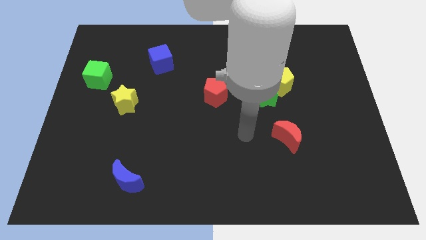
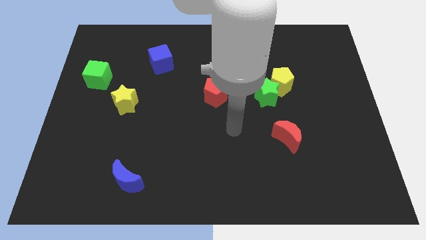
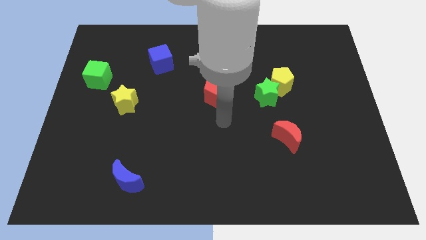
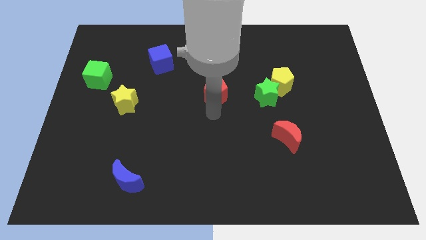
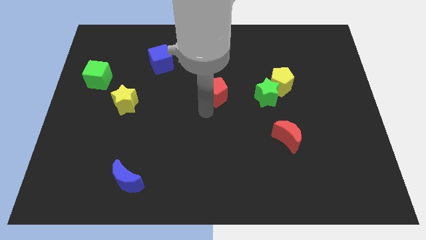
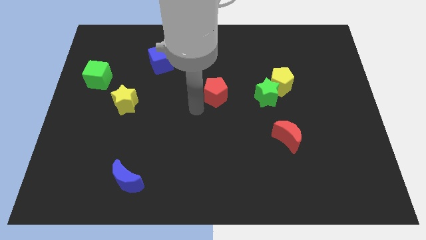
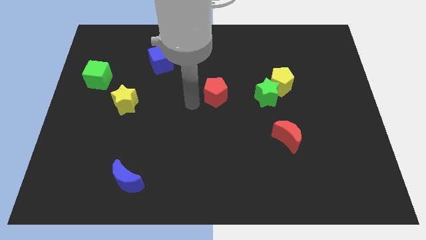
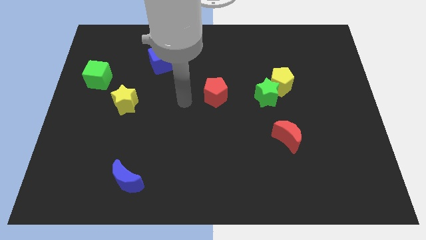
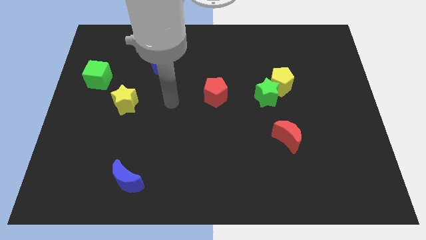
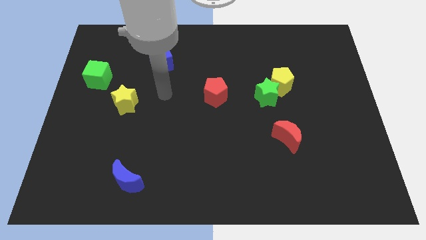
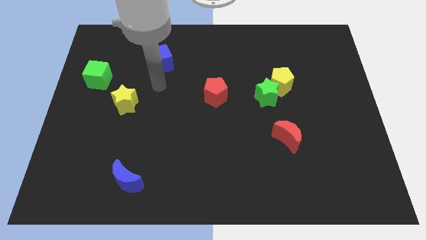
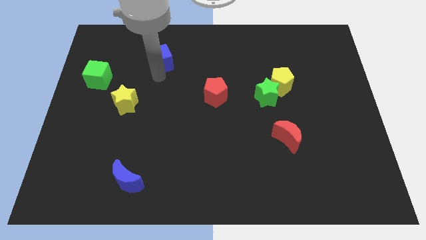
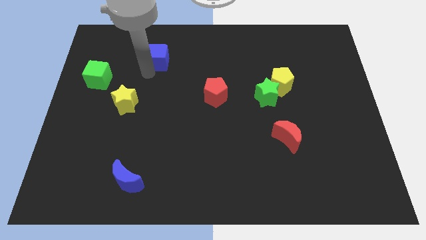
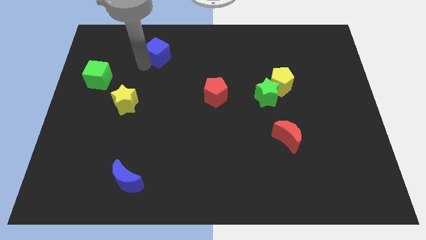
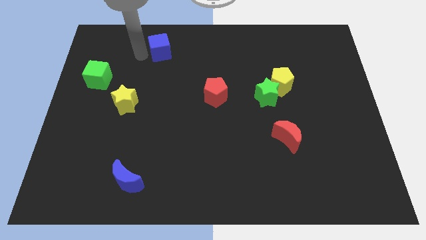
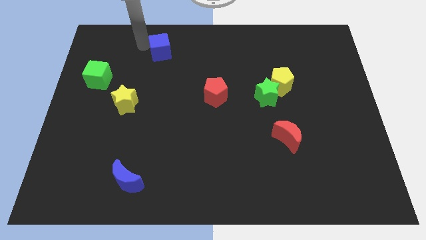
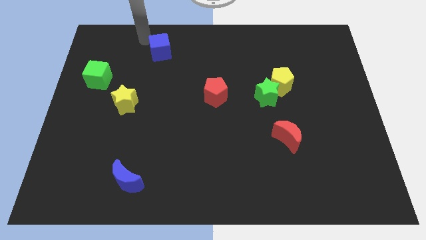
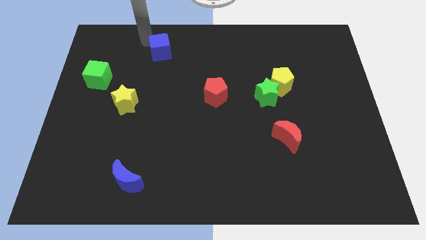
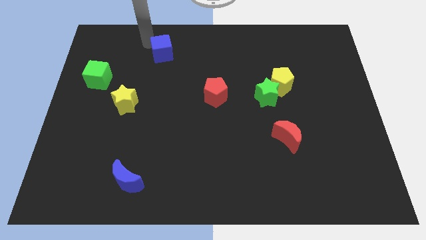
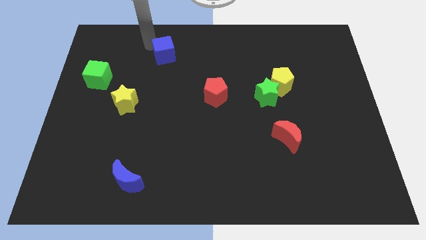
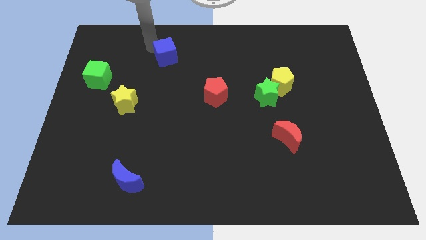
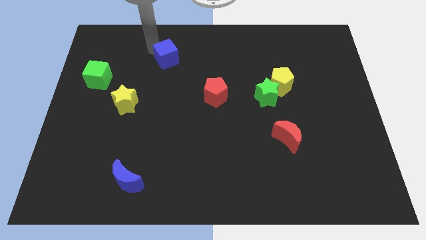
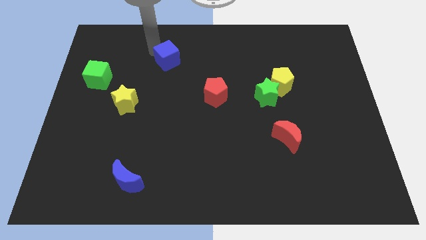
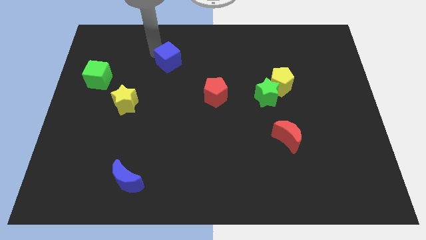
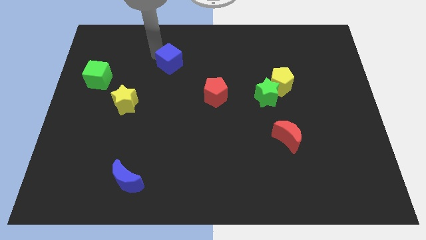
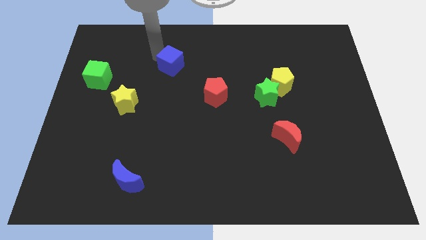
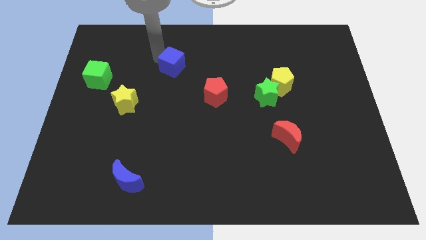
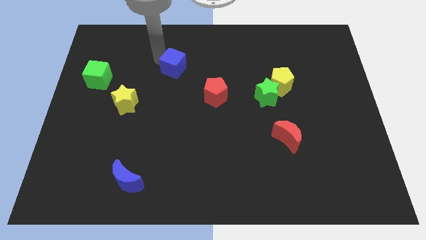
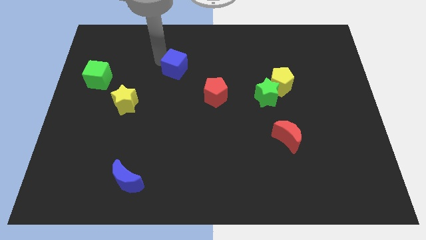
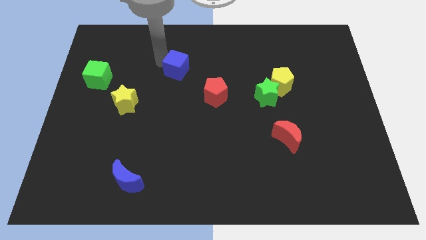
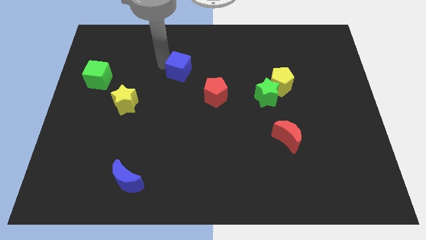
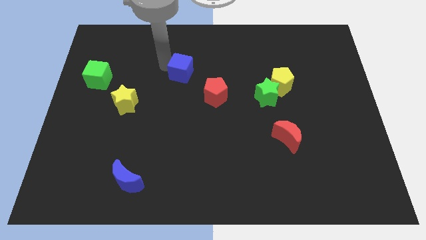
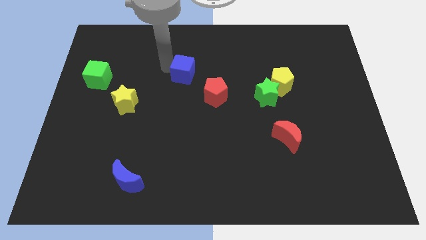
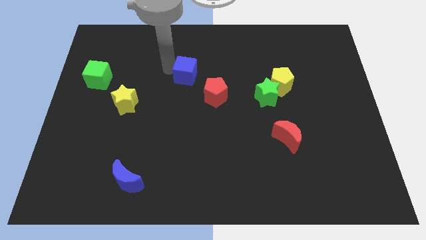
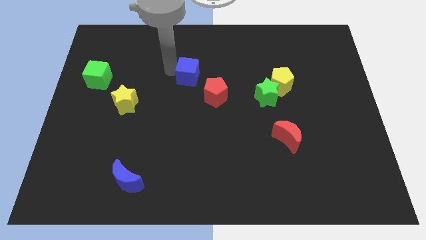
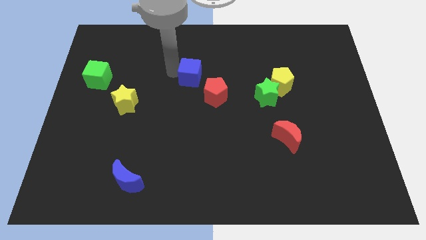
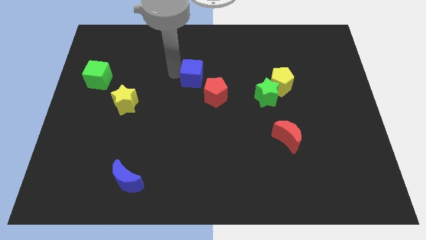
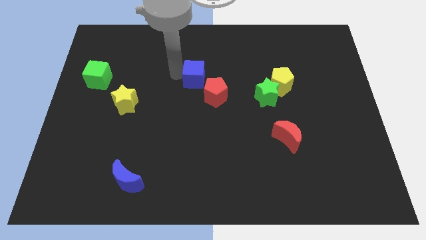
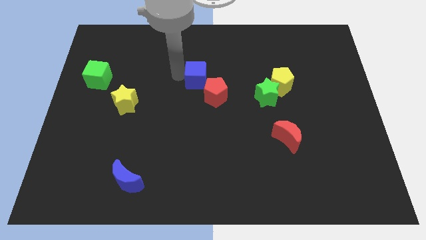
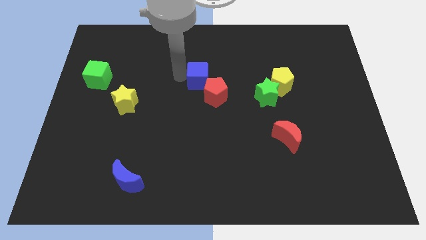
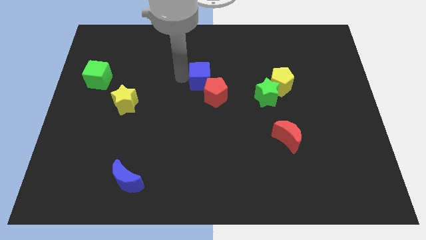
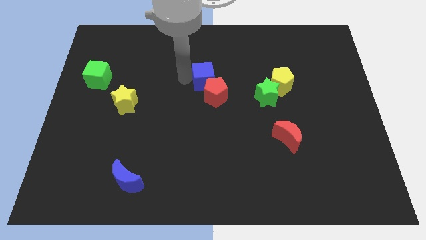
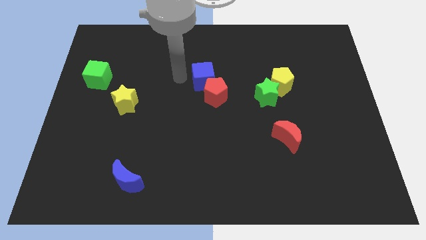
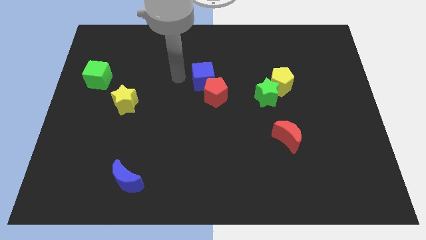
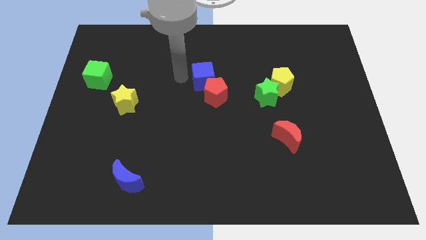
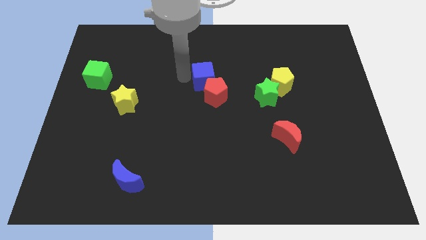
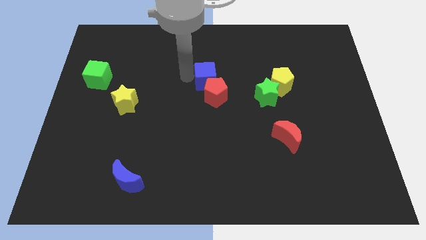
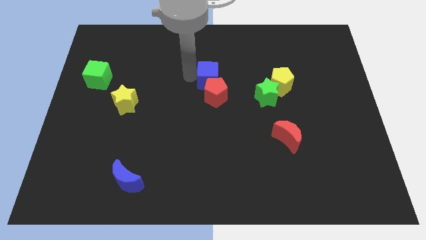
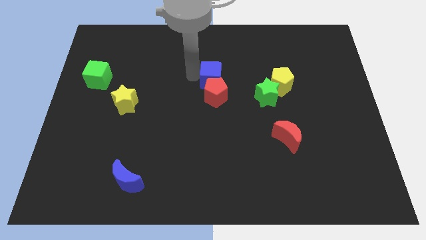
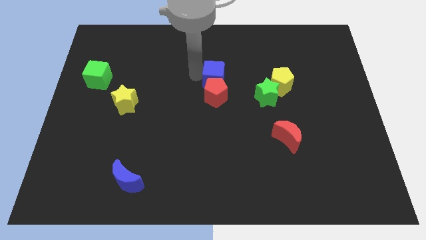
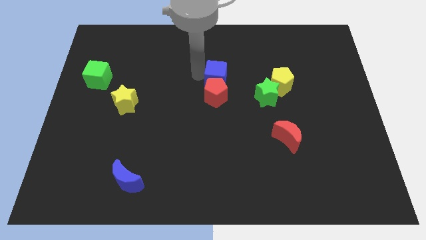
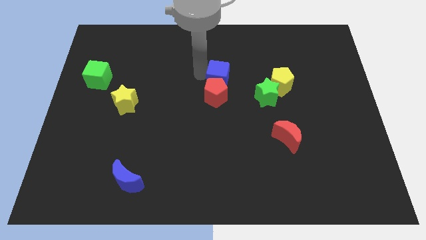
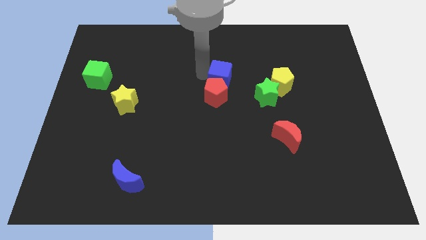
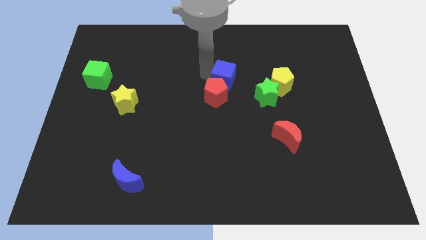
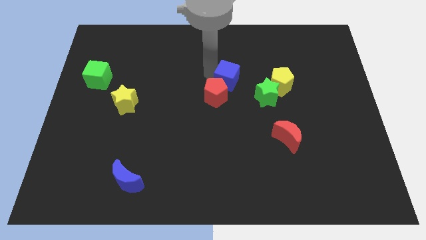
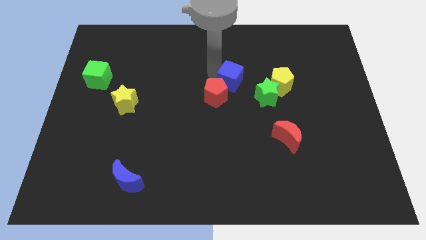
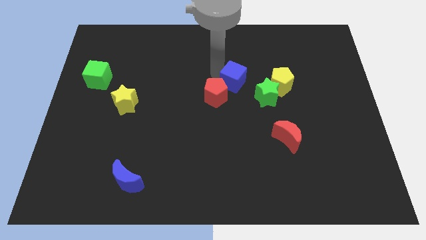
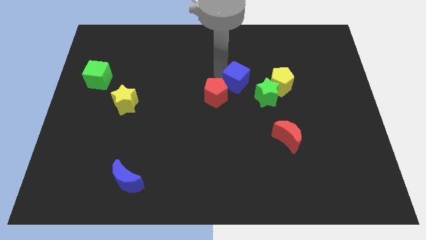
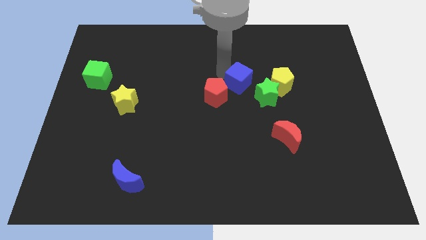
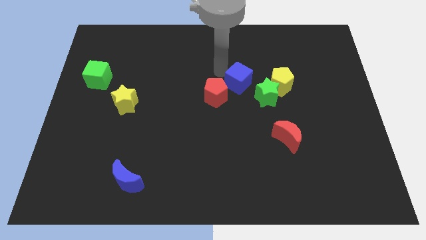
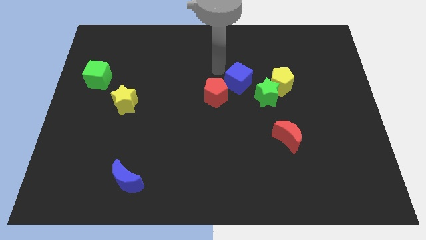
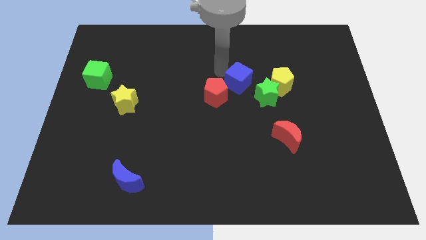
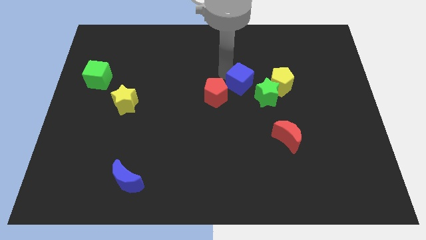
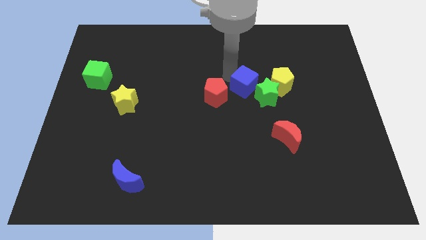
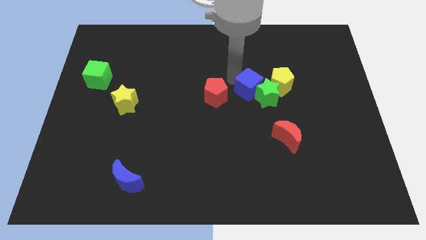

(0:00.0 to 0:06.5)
slide the blue cube close to the green star
